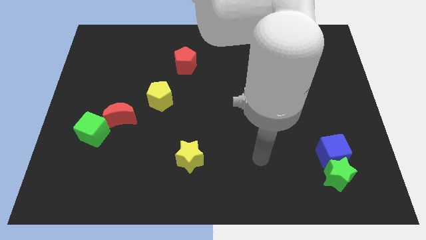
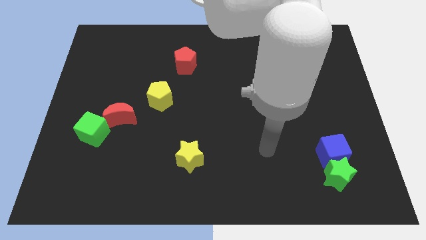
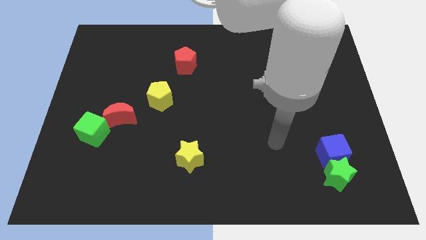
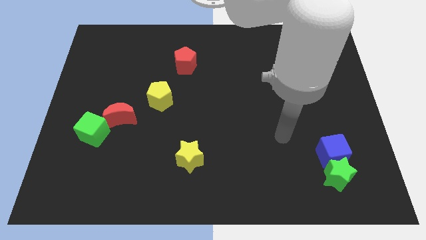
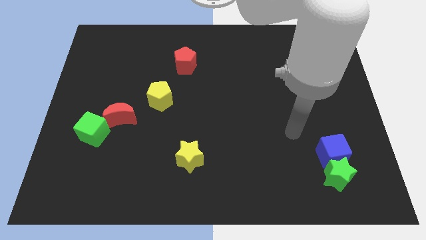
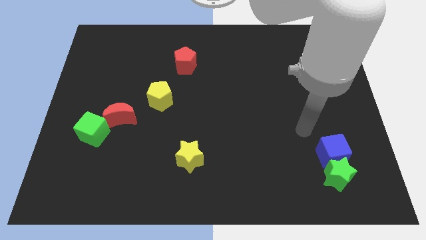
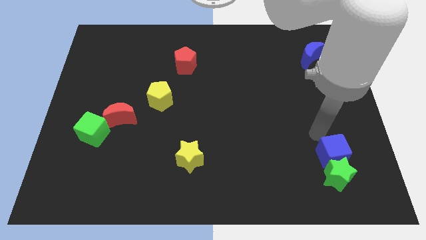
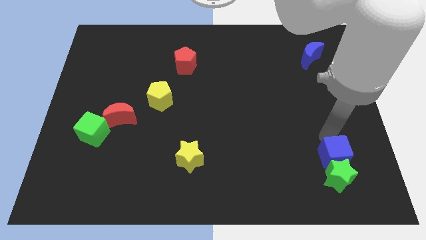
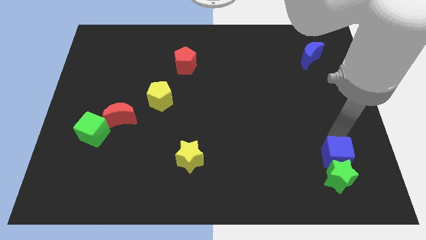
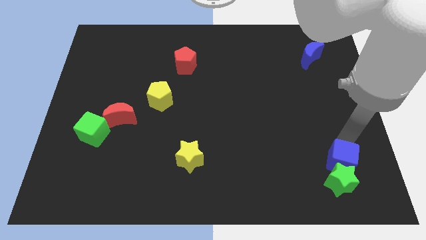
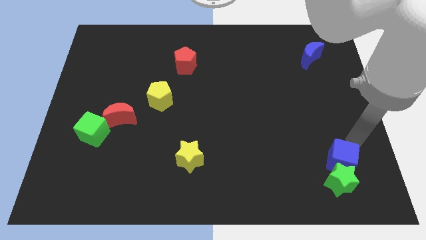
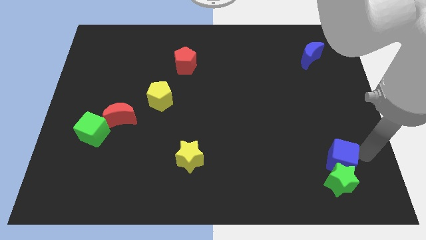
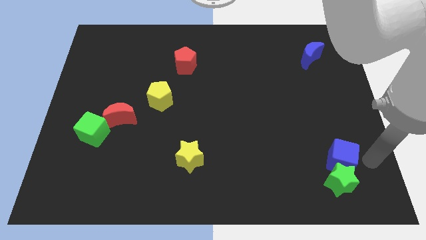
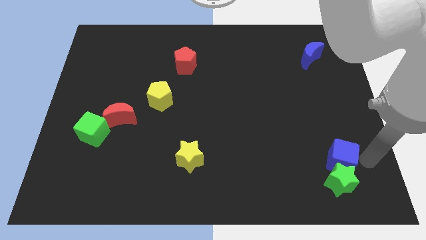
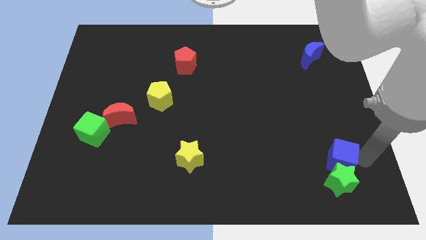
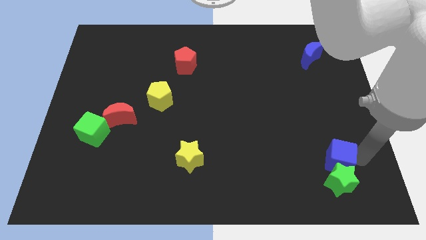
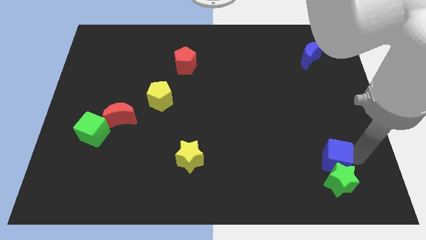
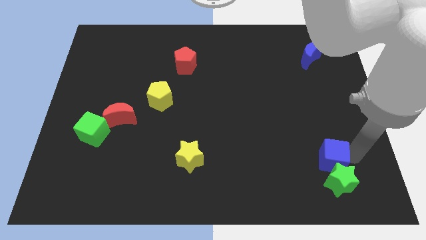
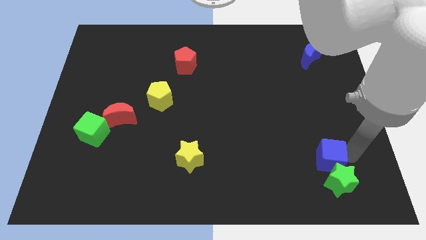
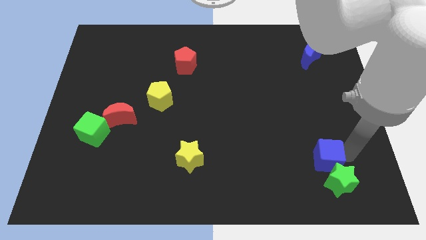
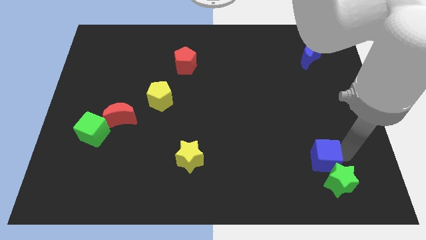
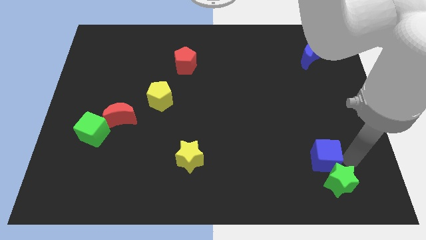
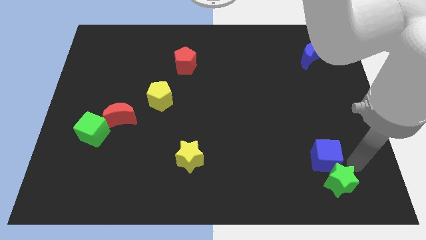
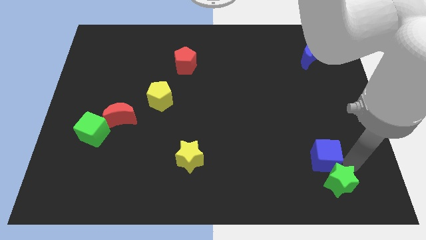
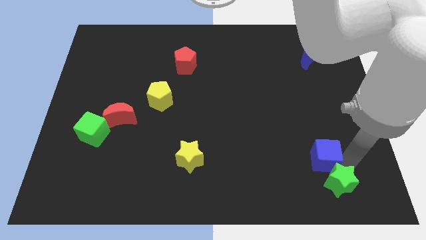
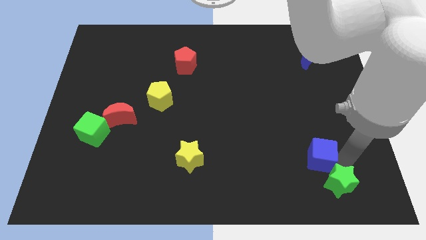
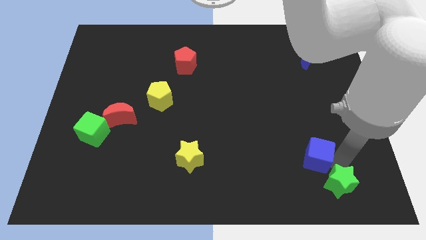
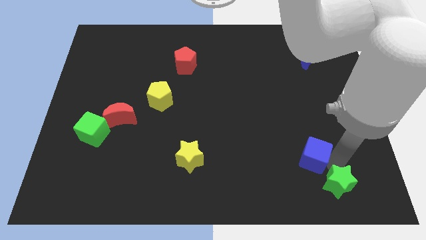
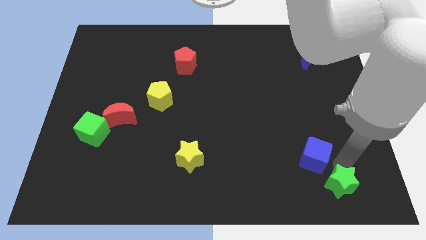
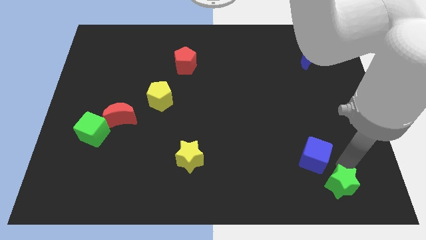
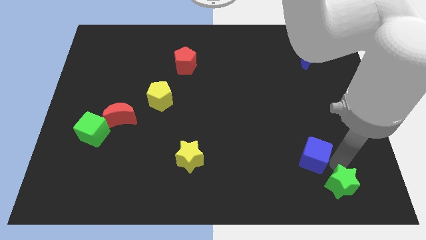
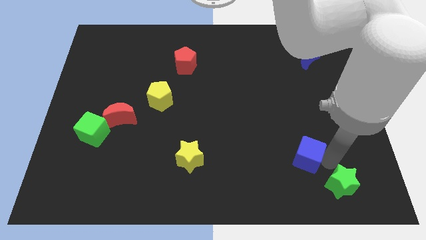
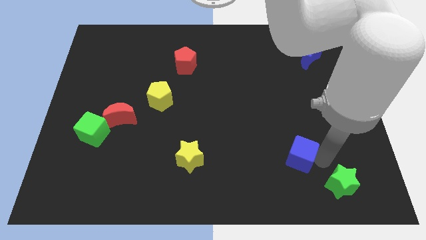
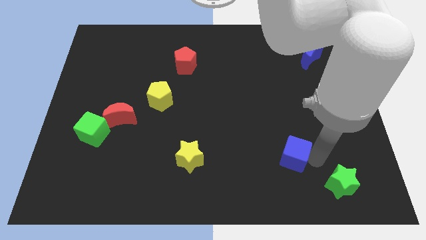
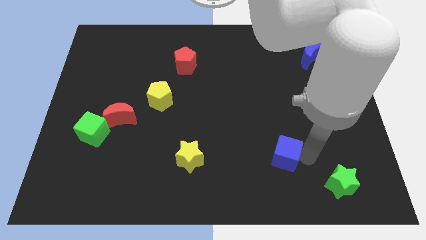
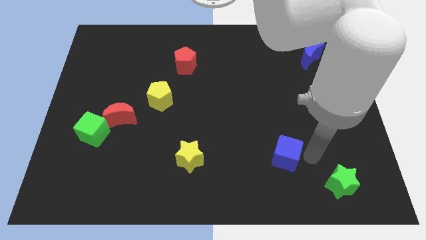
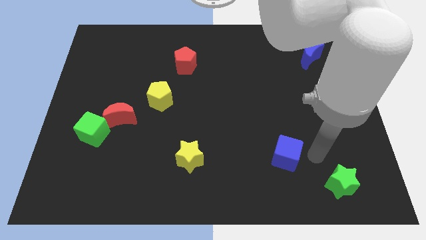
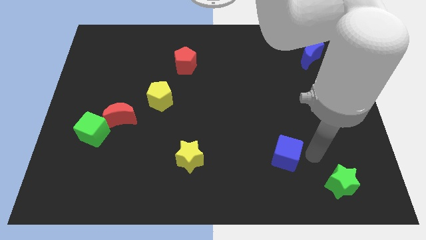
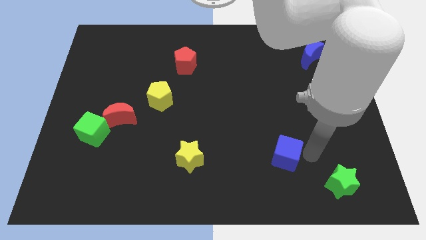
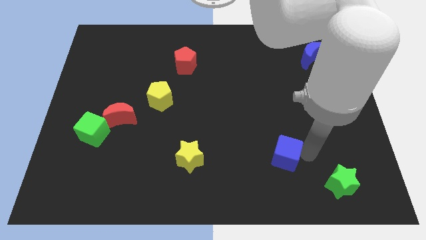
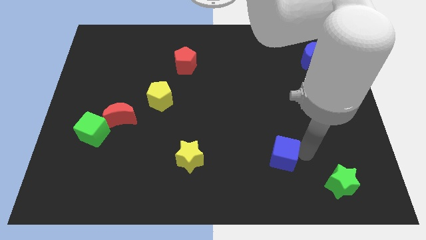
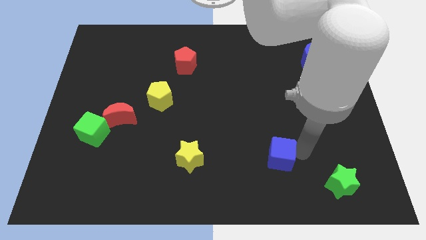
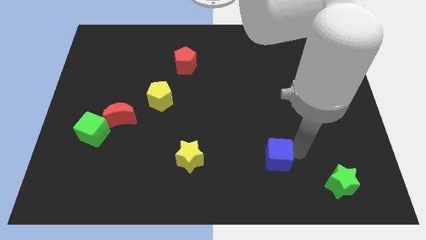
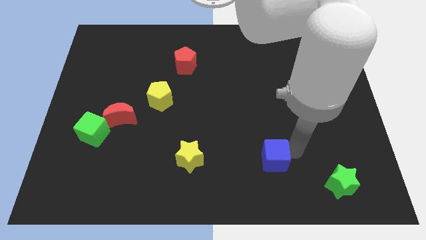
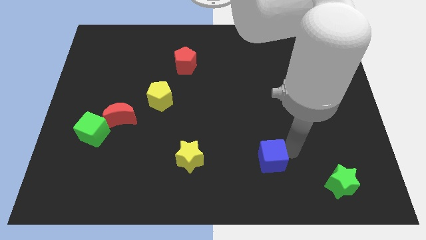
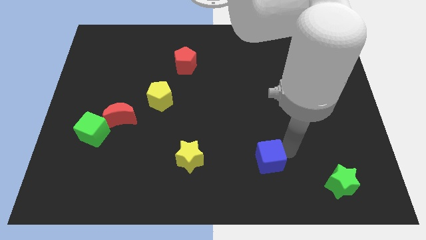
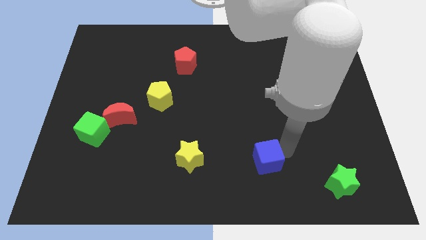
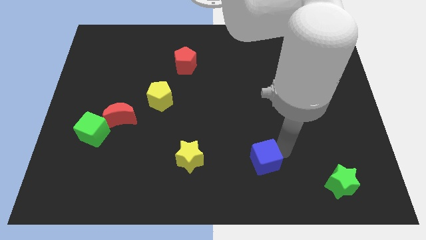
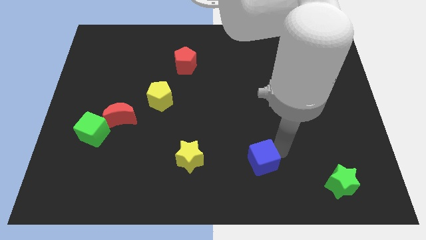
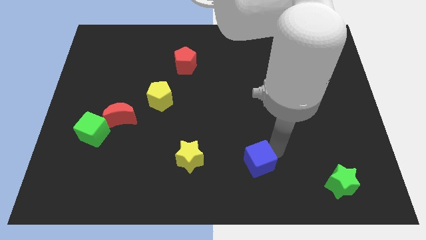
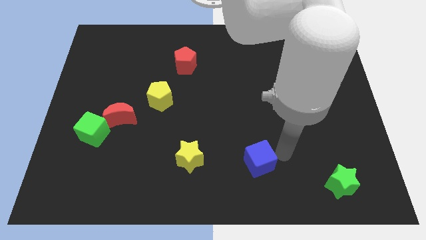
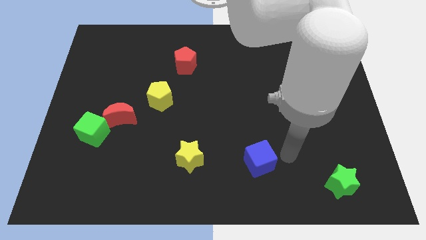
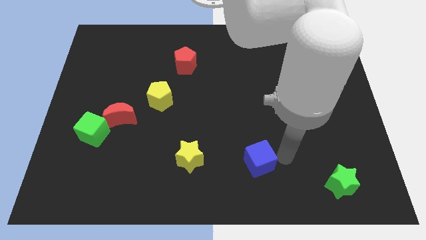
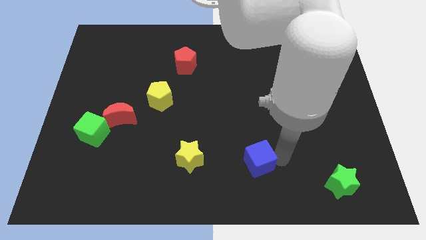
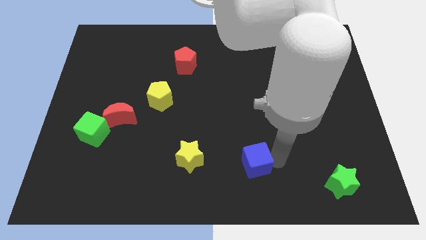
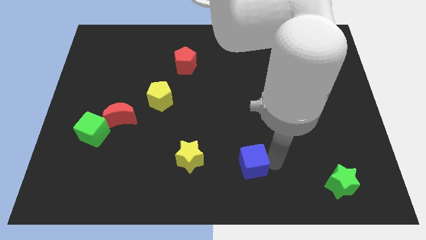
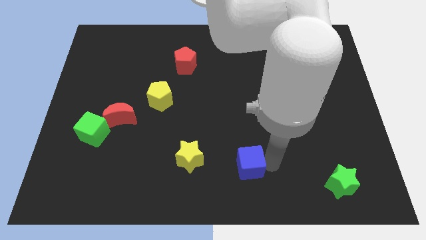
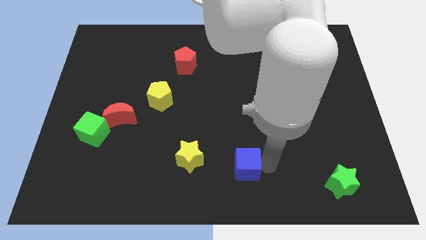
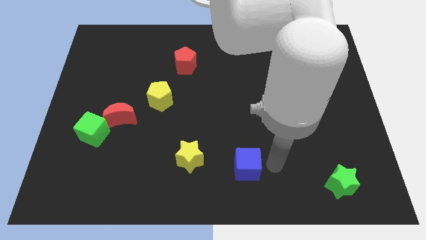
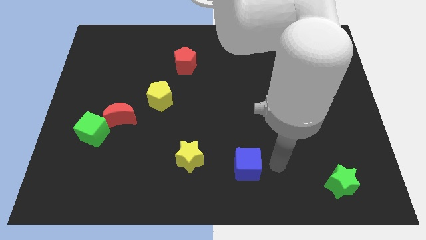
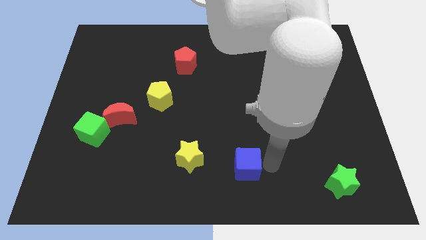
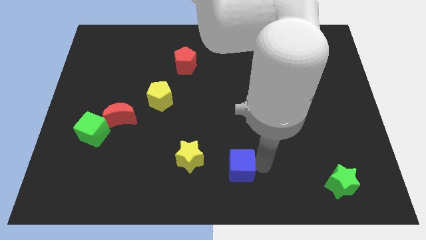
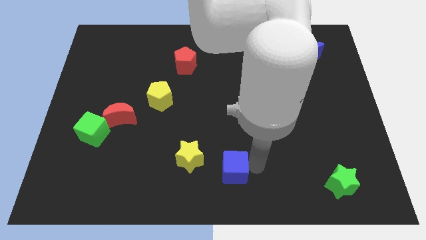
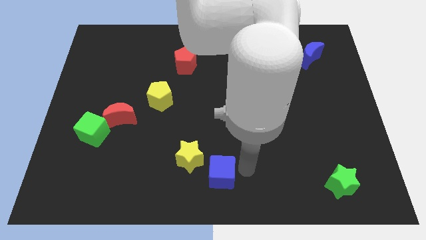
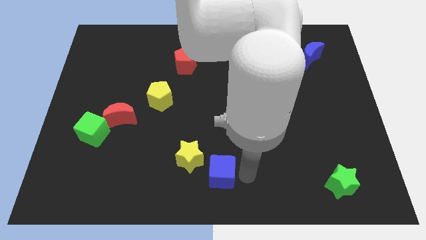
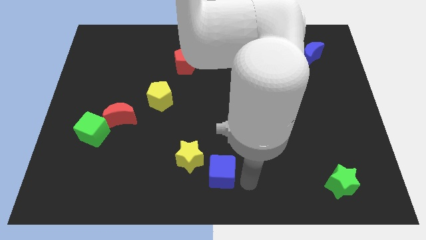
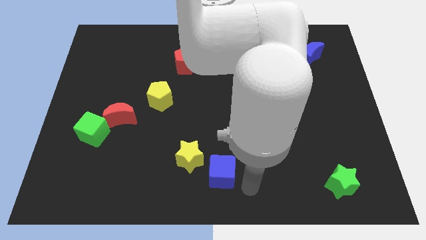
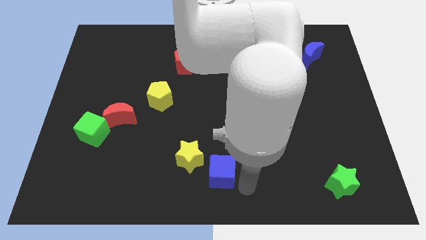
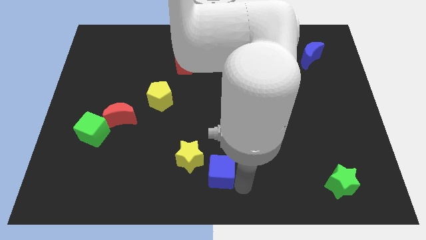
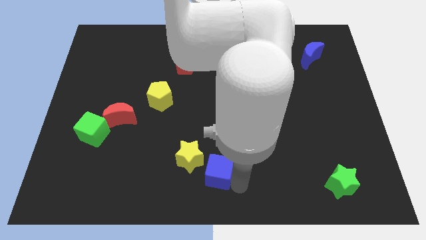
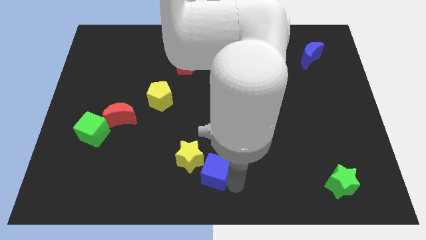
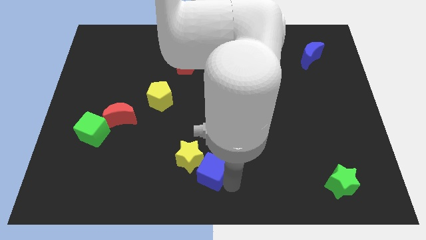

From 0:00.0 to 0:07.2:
push the blue cube to the yellow star
